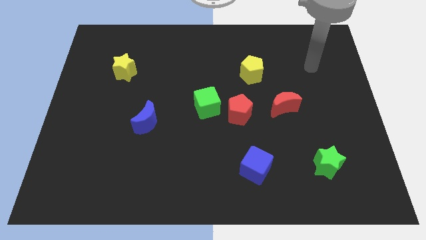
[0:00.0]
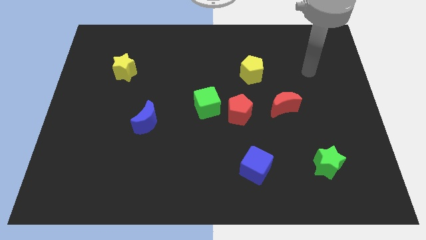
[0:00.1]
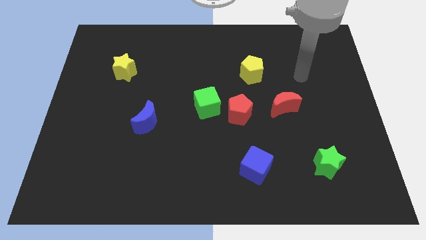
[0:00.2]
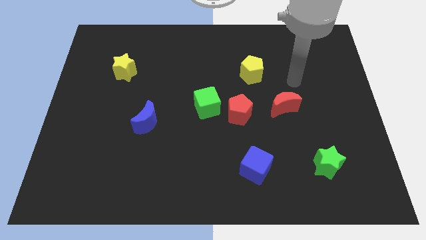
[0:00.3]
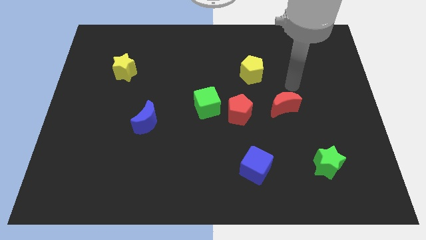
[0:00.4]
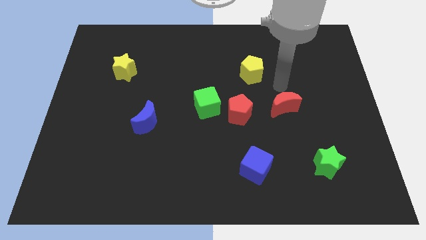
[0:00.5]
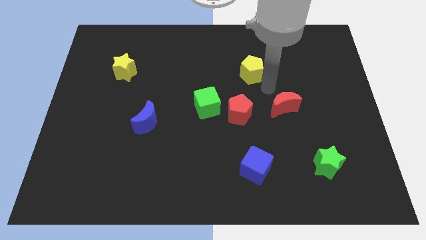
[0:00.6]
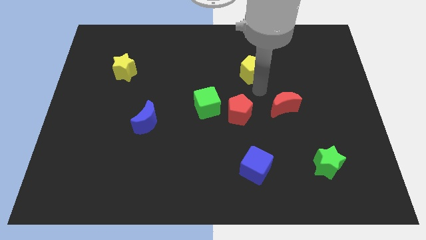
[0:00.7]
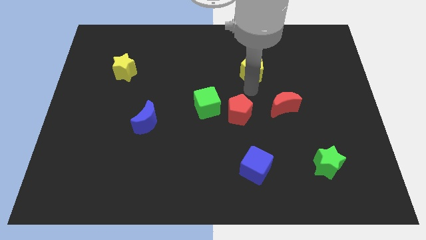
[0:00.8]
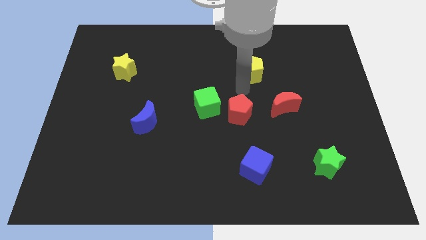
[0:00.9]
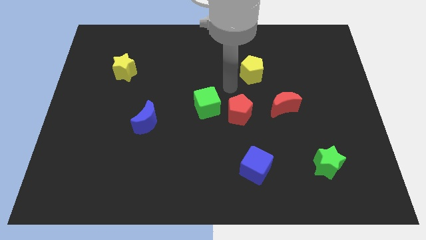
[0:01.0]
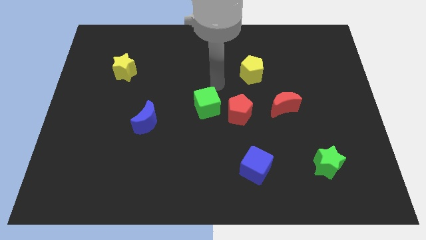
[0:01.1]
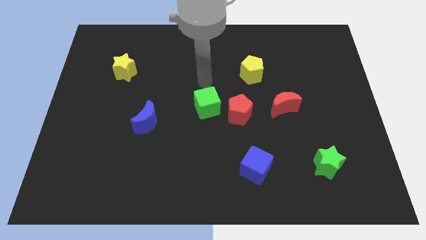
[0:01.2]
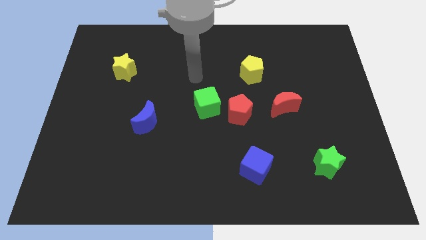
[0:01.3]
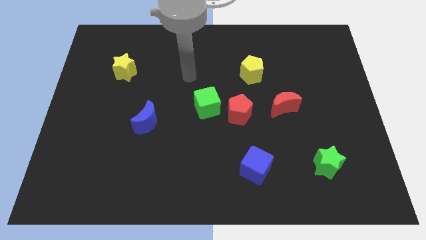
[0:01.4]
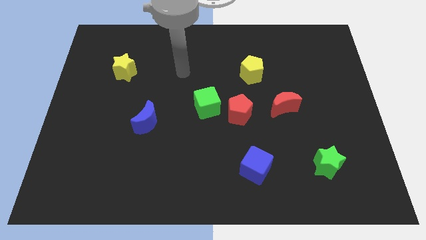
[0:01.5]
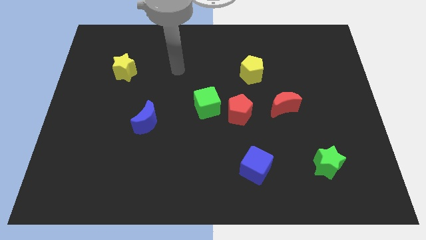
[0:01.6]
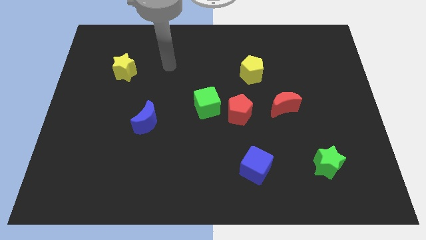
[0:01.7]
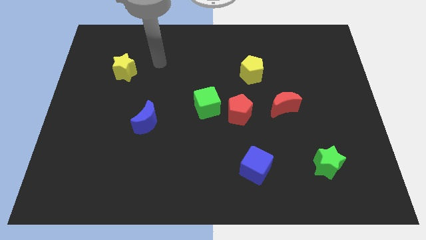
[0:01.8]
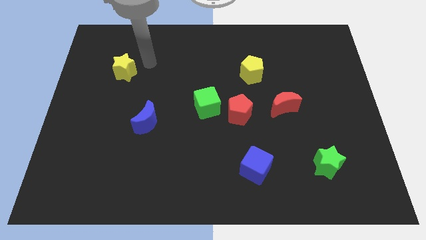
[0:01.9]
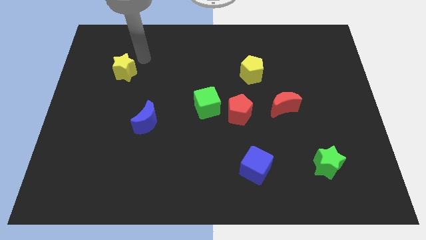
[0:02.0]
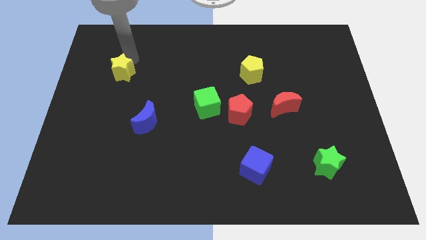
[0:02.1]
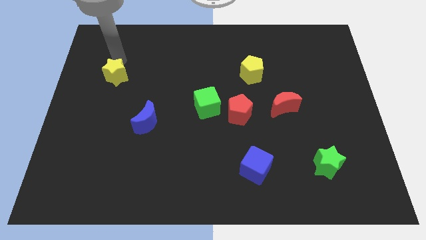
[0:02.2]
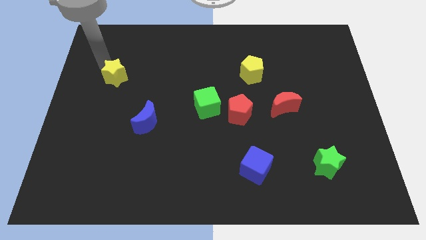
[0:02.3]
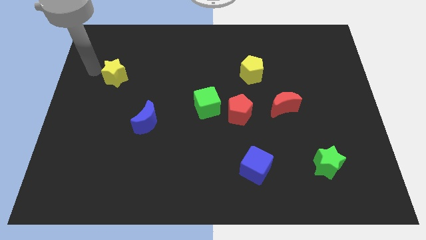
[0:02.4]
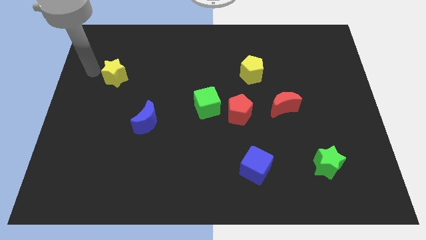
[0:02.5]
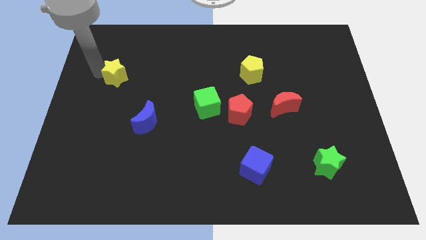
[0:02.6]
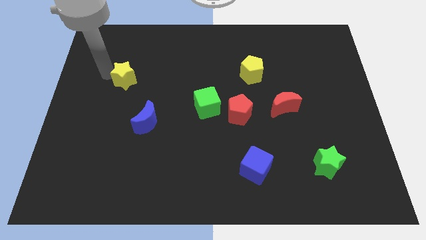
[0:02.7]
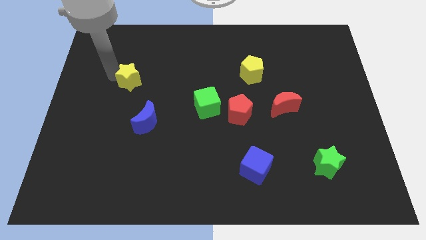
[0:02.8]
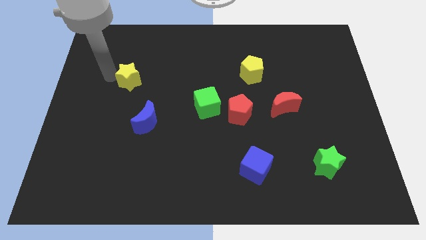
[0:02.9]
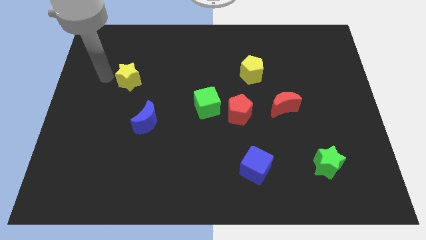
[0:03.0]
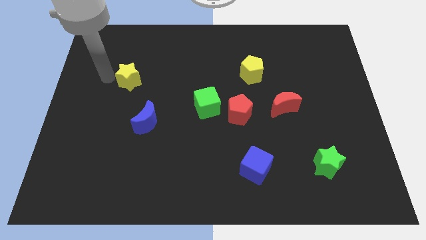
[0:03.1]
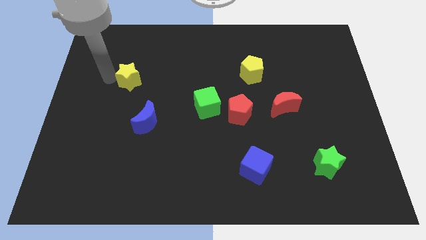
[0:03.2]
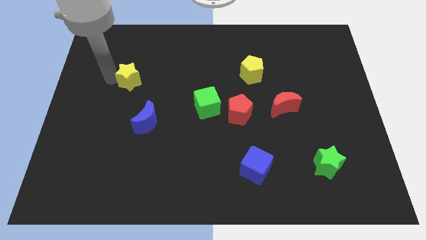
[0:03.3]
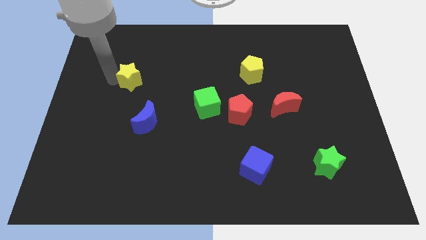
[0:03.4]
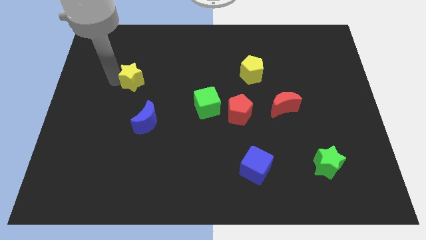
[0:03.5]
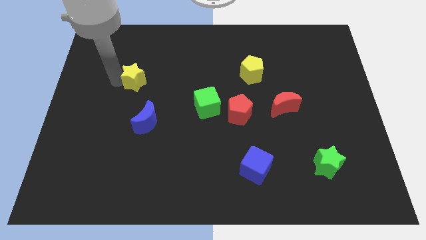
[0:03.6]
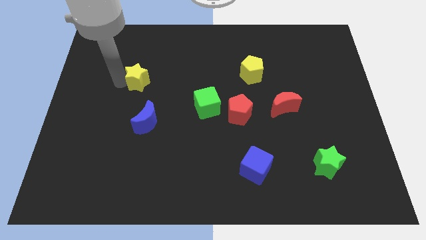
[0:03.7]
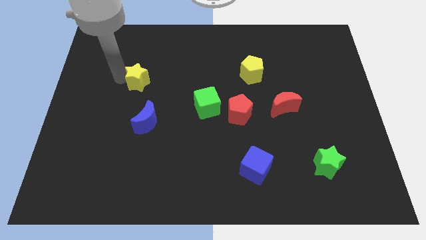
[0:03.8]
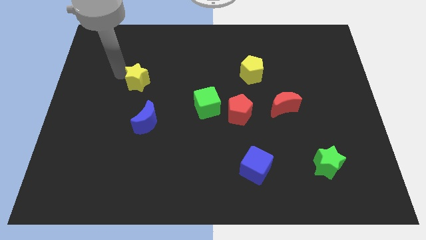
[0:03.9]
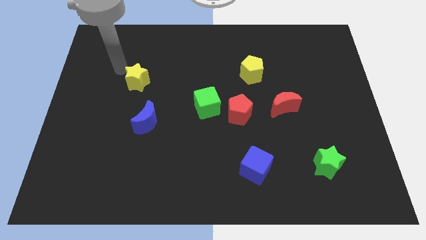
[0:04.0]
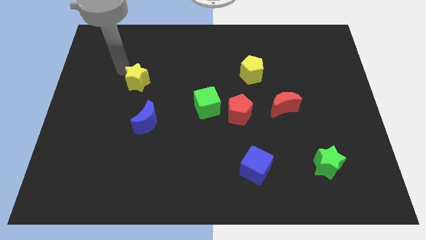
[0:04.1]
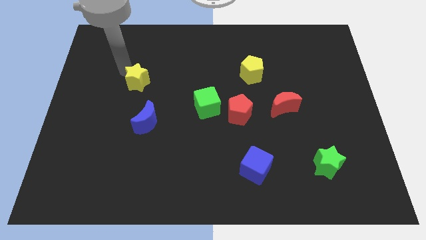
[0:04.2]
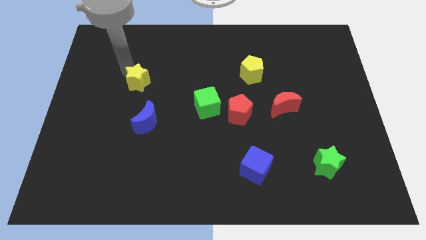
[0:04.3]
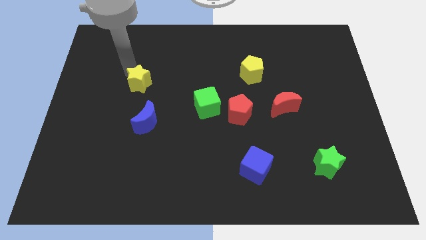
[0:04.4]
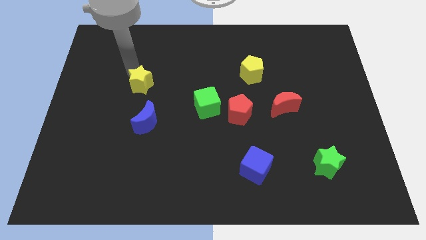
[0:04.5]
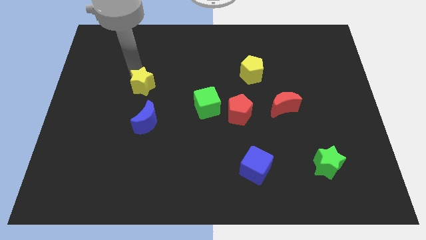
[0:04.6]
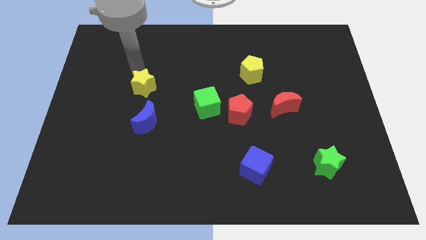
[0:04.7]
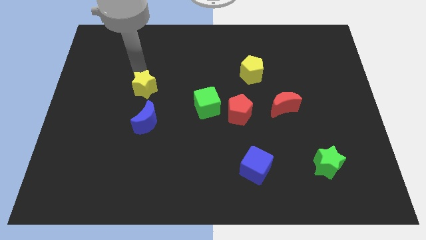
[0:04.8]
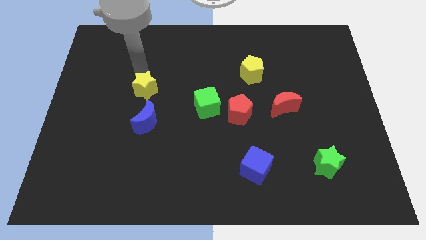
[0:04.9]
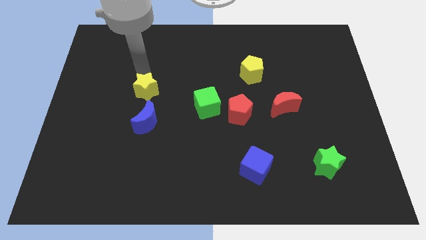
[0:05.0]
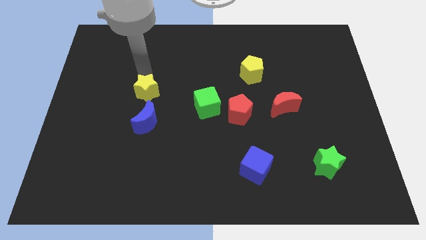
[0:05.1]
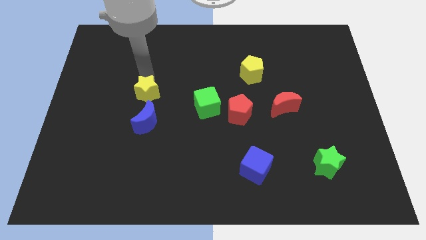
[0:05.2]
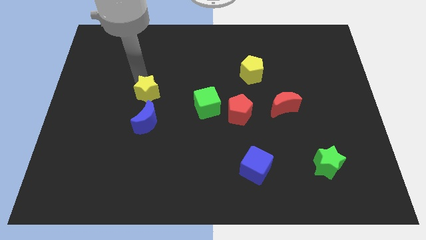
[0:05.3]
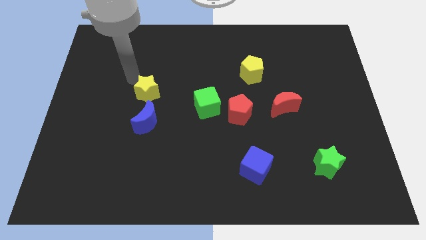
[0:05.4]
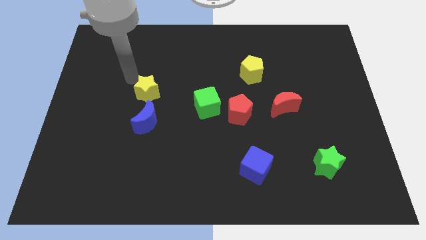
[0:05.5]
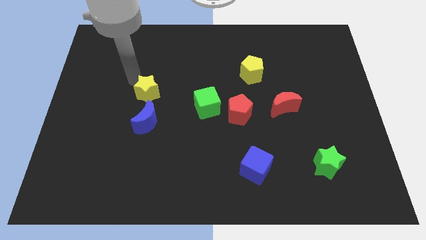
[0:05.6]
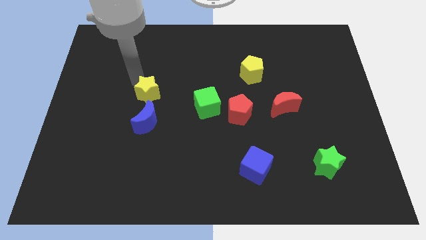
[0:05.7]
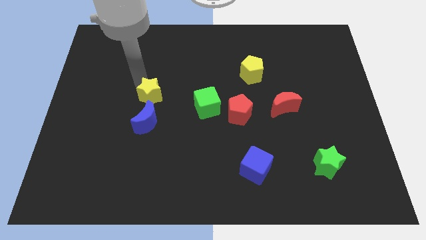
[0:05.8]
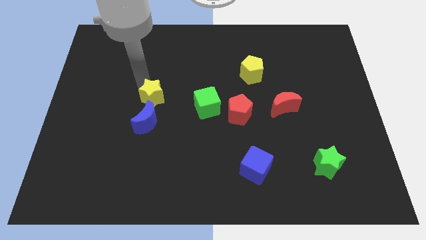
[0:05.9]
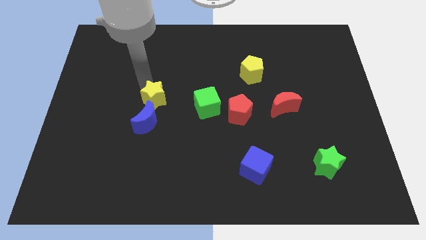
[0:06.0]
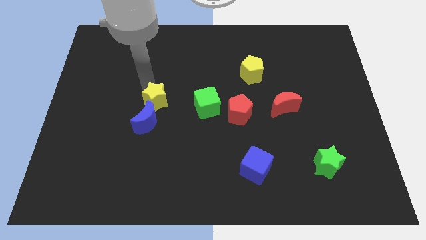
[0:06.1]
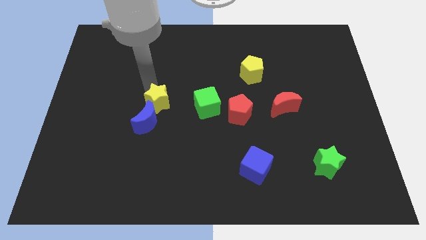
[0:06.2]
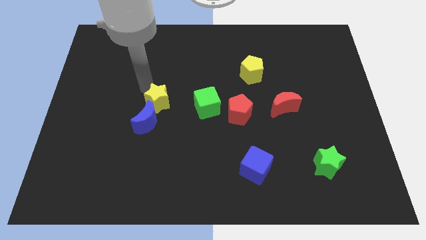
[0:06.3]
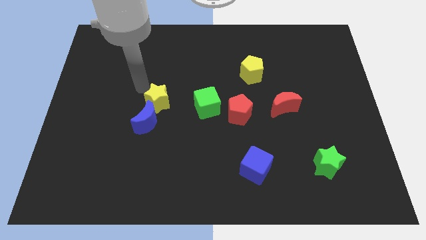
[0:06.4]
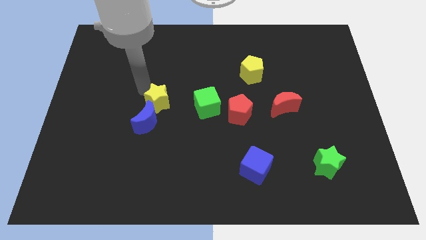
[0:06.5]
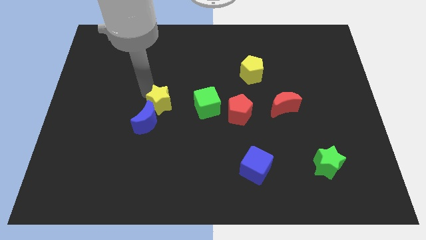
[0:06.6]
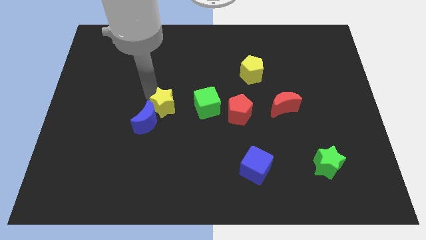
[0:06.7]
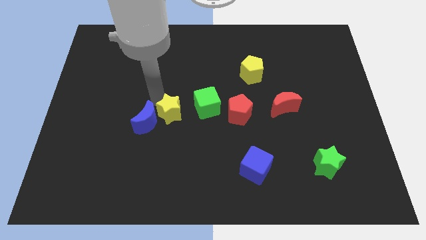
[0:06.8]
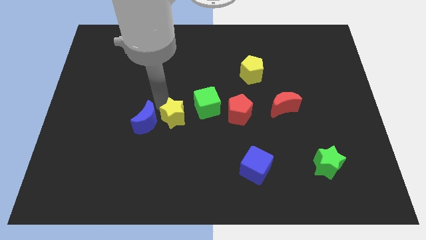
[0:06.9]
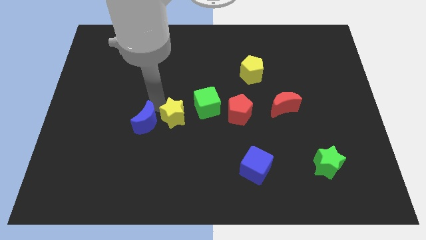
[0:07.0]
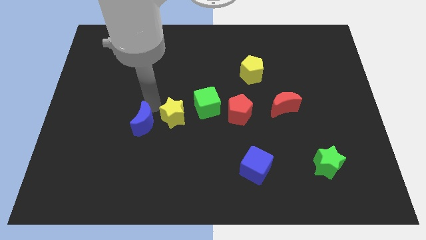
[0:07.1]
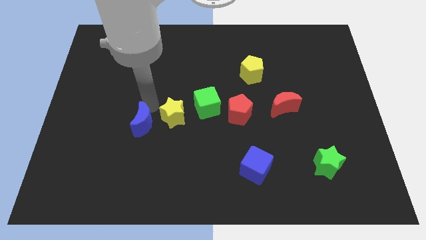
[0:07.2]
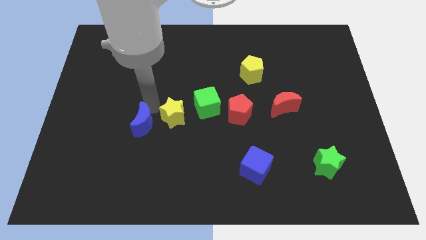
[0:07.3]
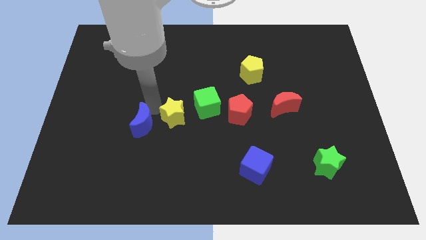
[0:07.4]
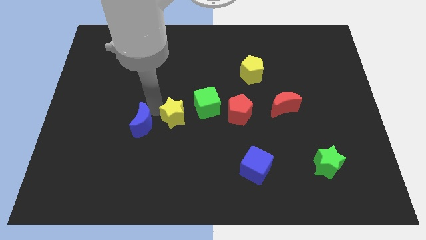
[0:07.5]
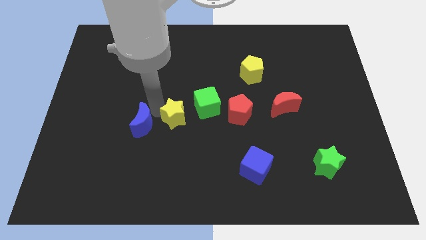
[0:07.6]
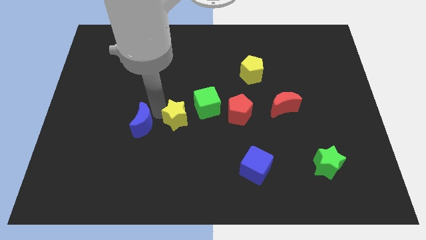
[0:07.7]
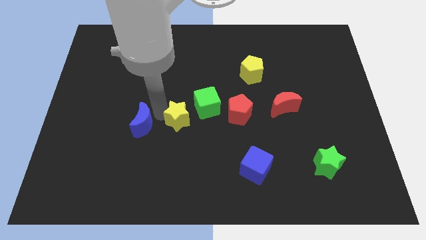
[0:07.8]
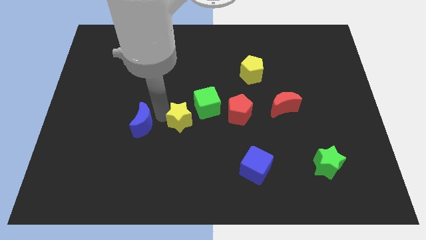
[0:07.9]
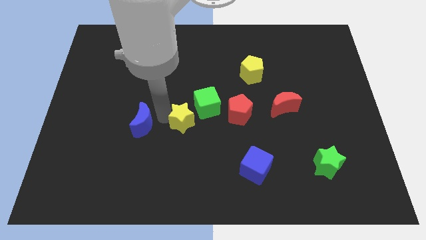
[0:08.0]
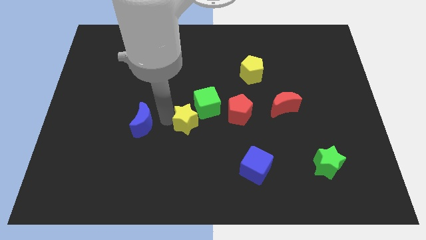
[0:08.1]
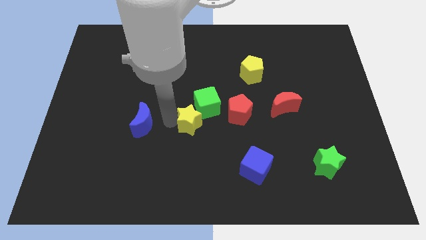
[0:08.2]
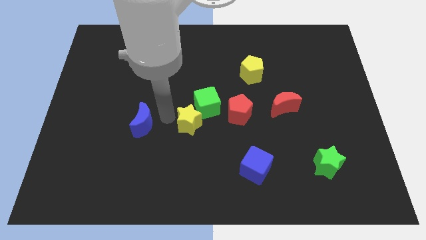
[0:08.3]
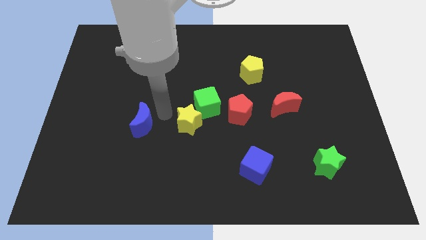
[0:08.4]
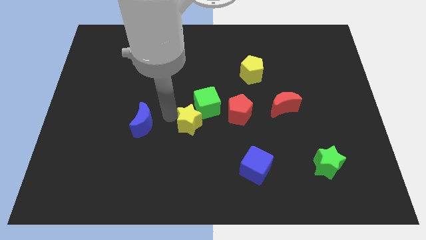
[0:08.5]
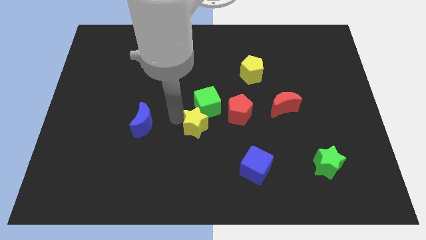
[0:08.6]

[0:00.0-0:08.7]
push the yellow star to the bottom left side of the red pentagon
